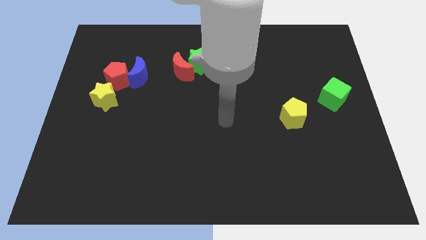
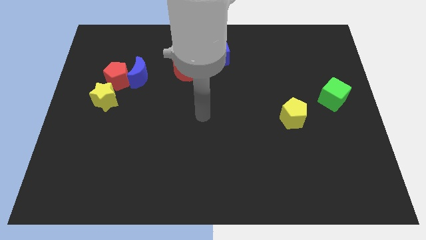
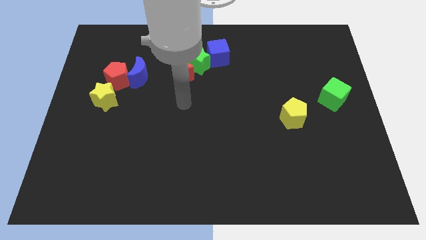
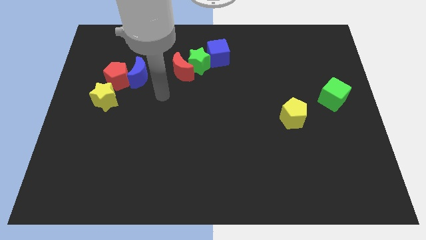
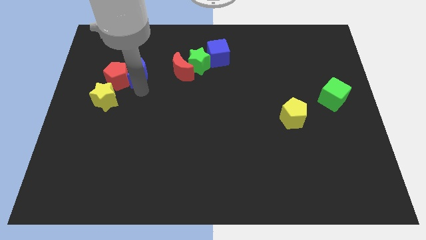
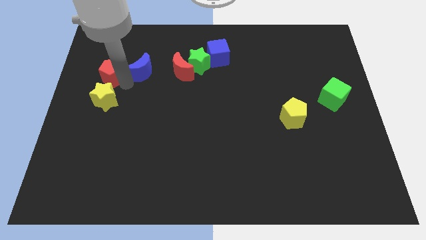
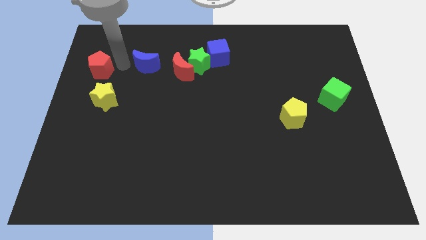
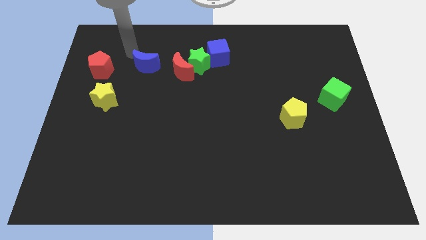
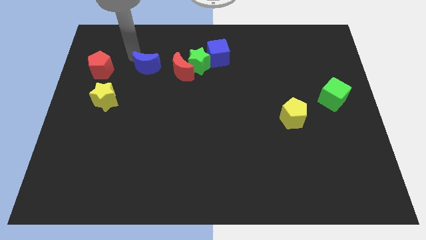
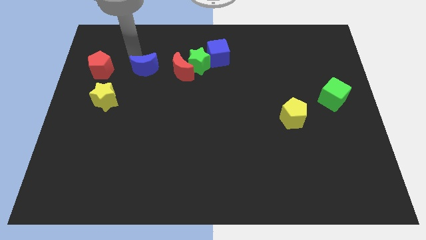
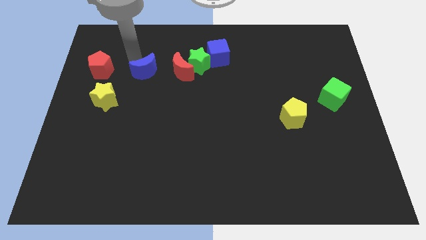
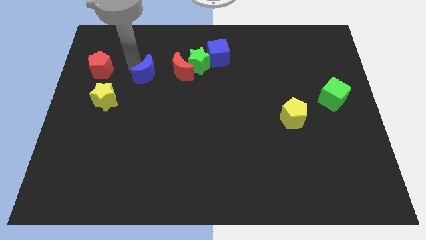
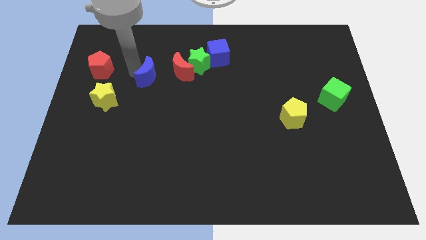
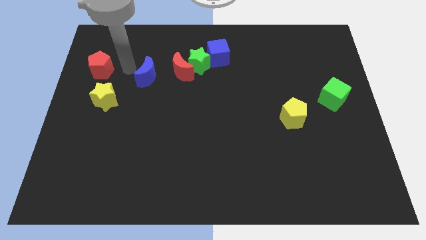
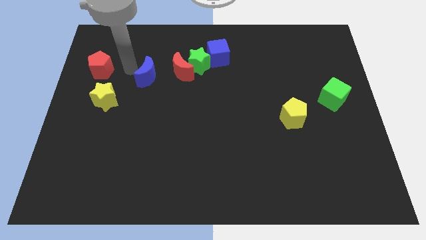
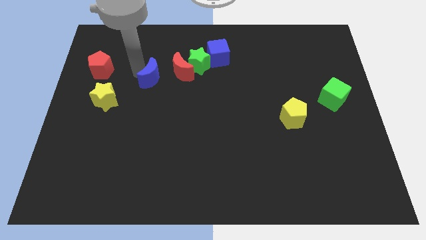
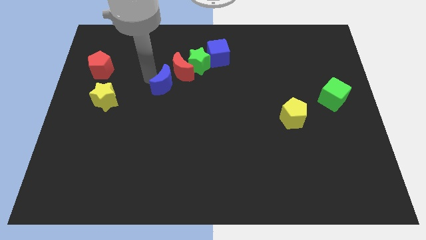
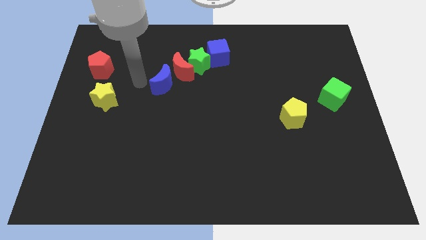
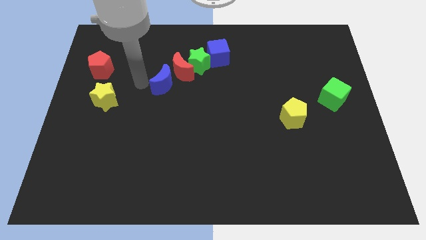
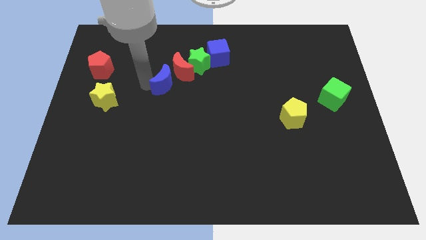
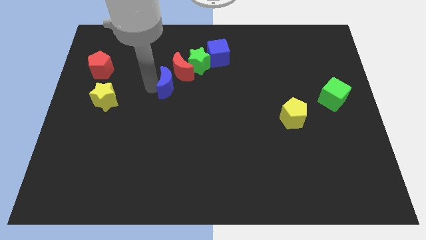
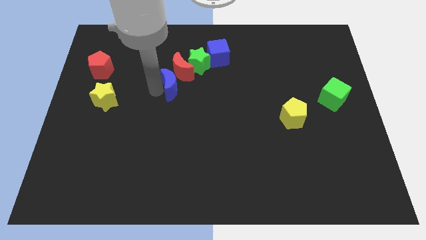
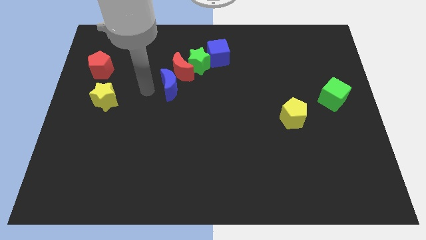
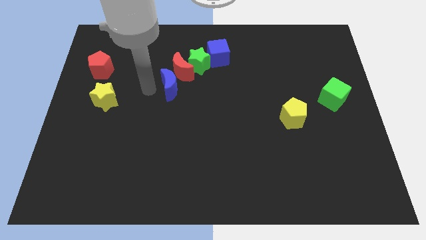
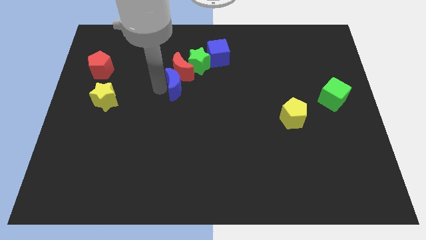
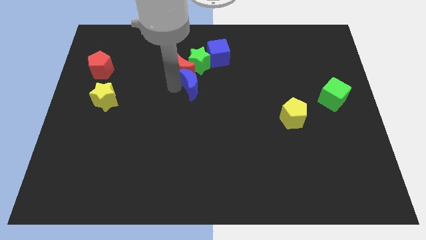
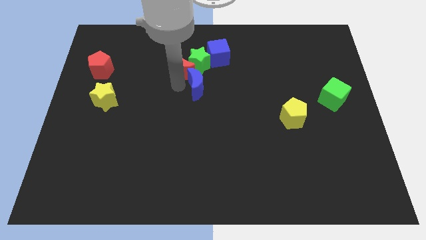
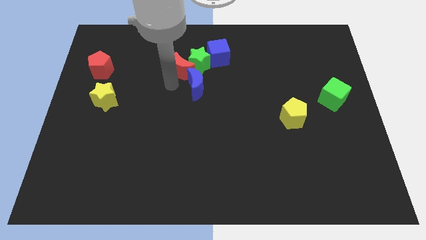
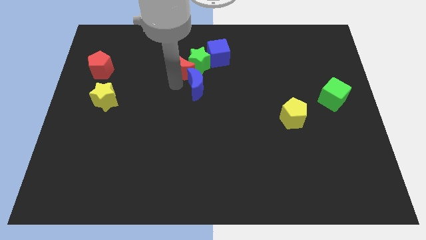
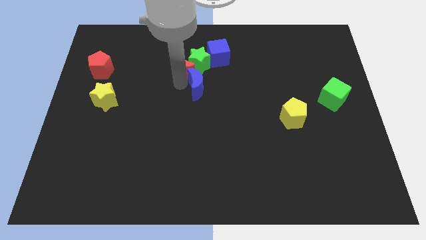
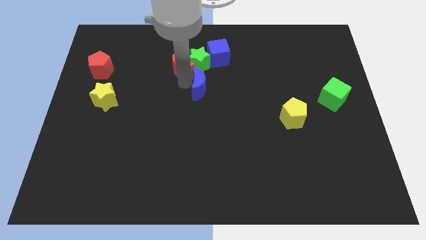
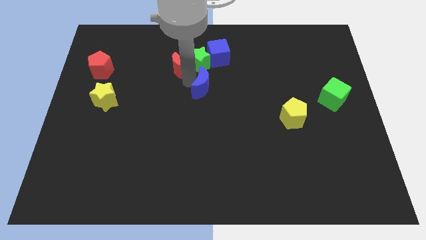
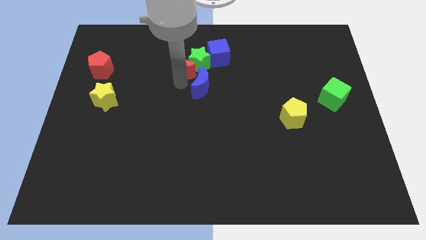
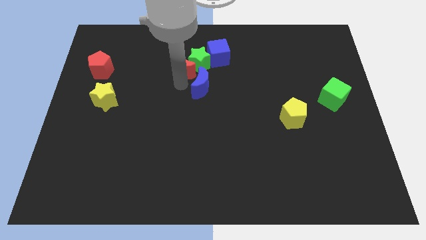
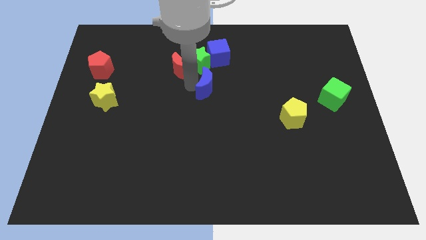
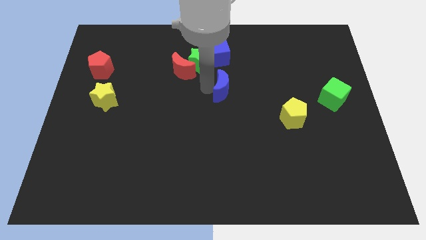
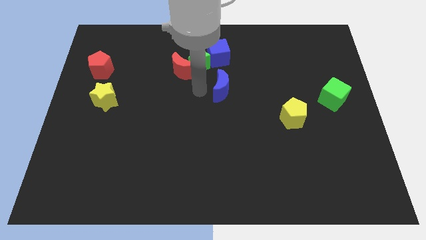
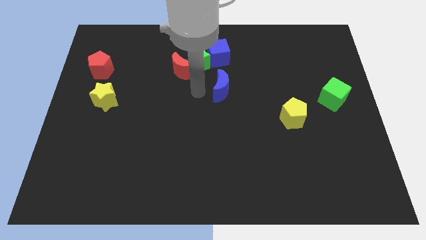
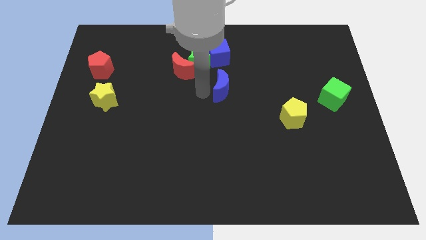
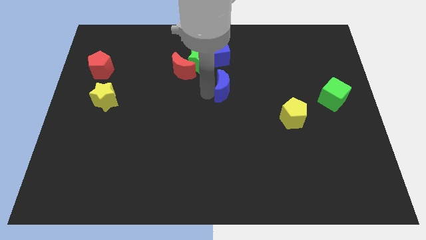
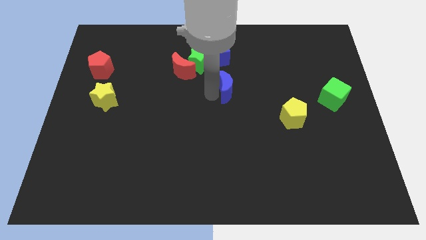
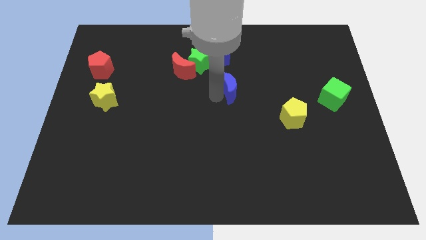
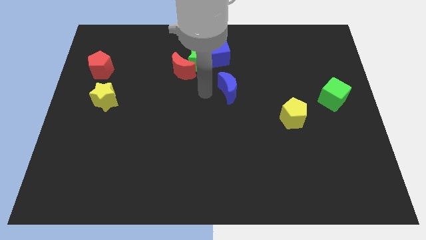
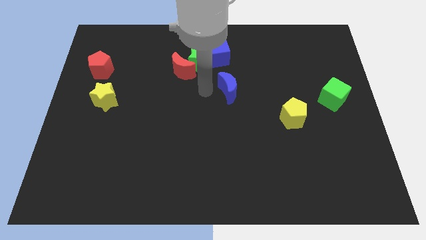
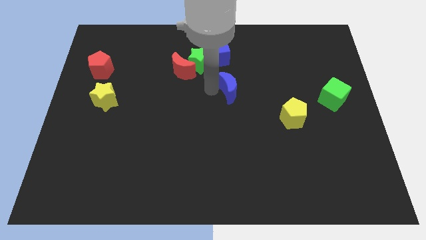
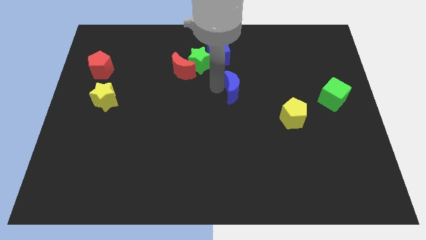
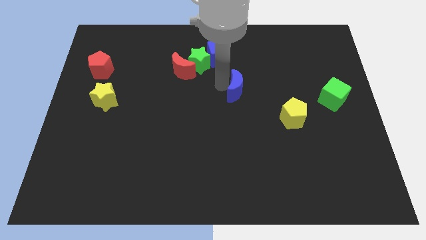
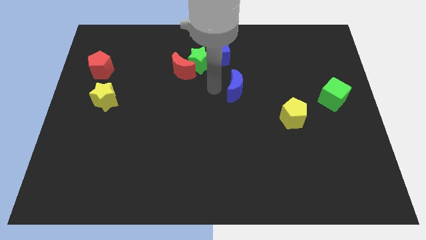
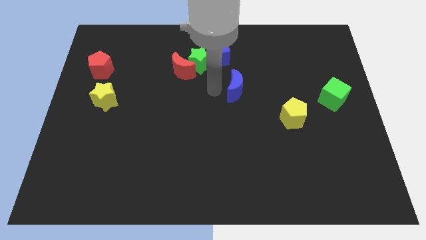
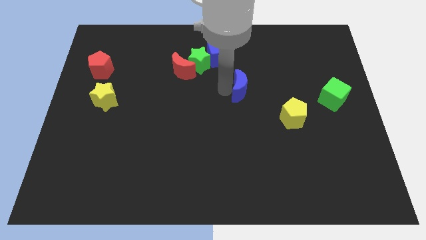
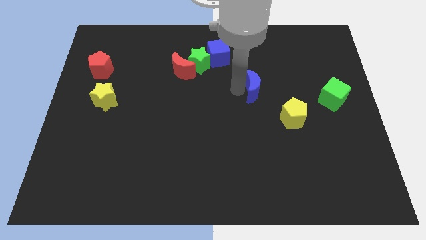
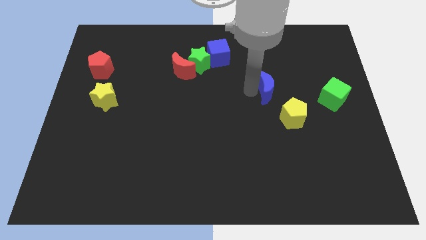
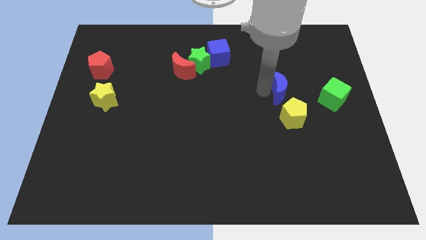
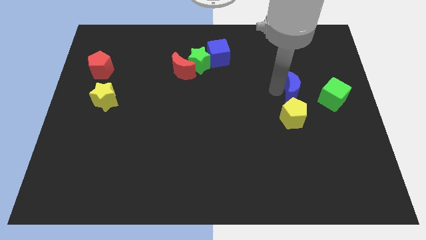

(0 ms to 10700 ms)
put the blue moon to the top right of the yellow pentagon

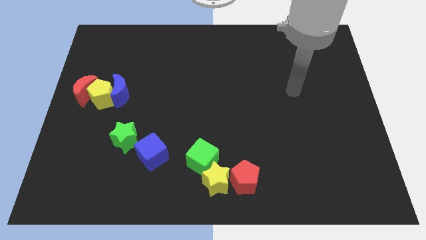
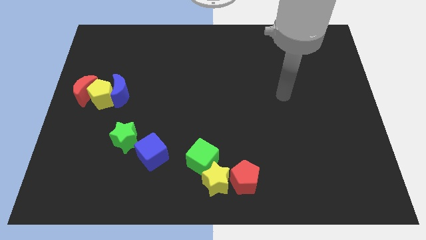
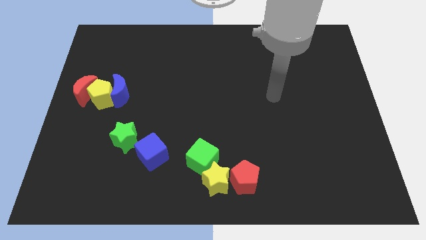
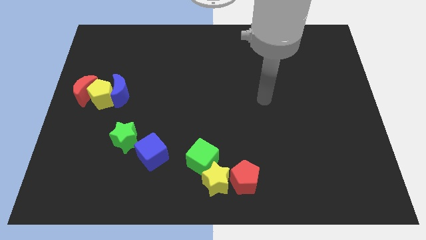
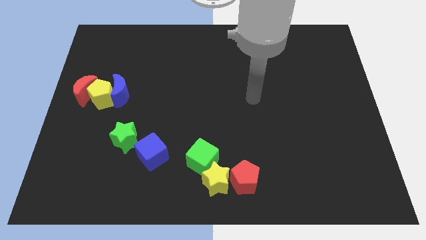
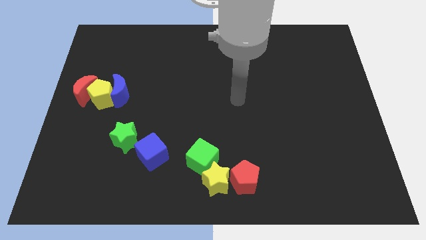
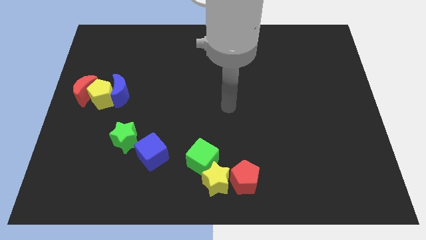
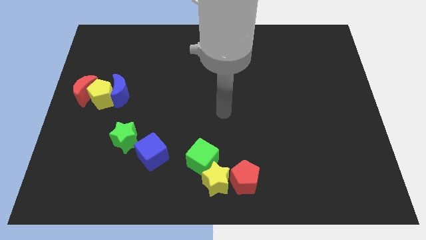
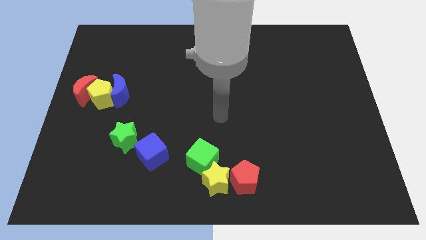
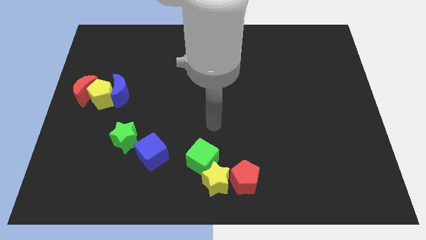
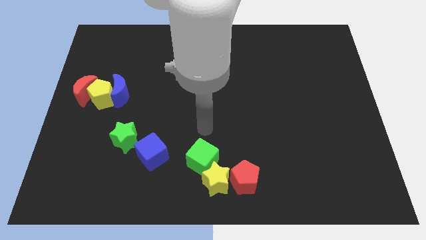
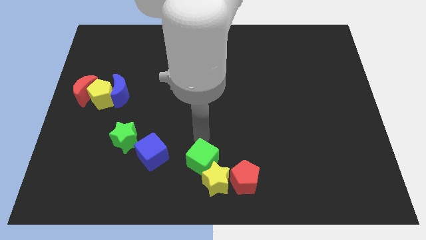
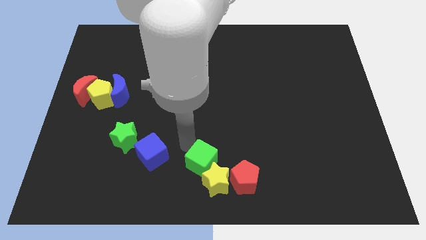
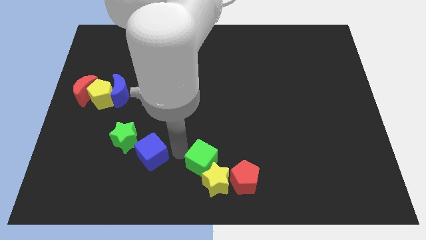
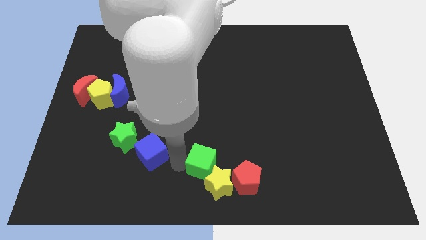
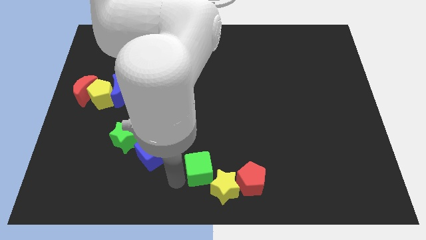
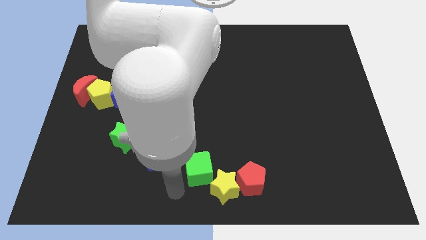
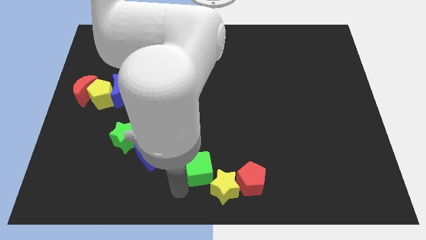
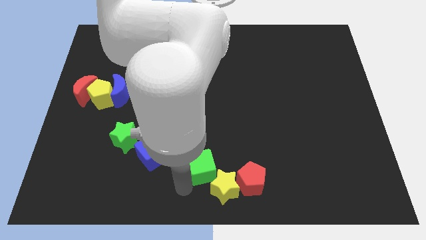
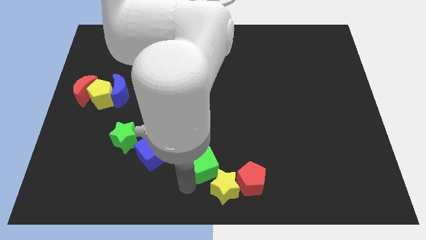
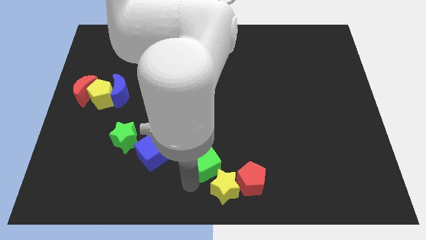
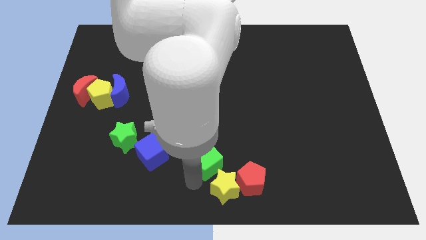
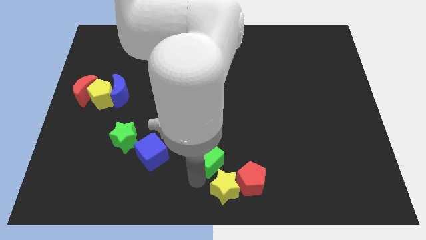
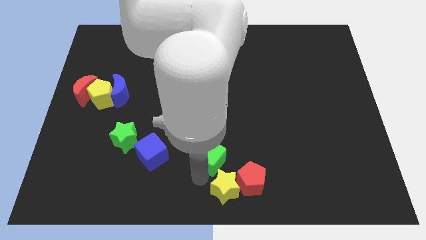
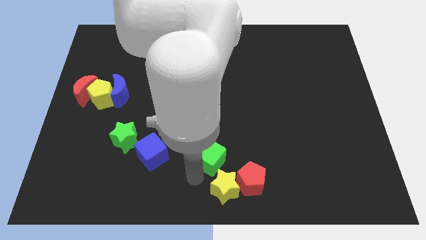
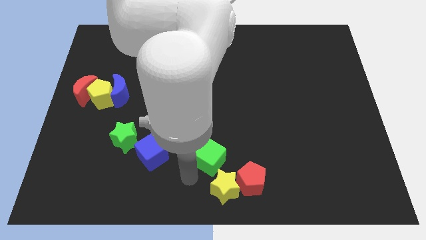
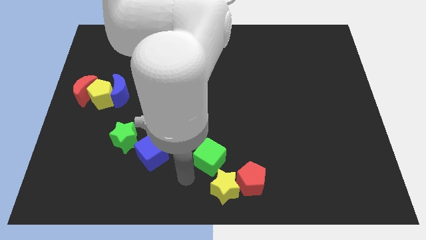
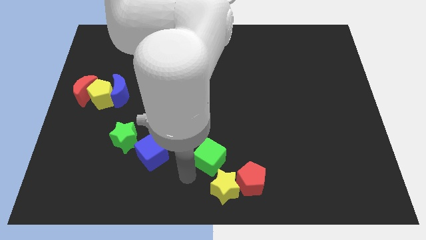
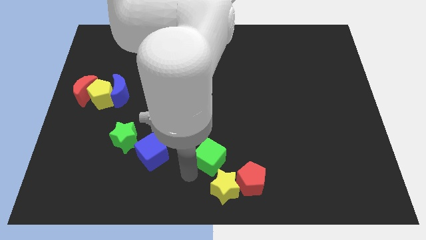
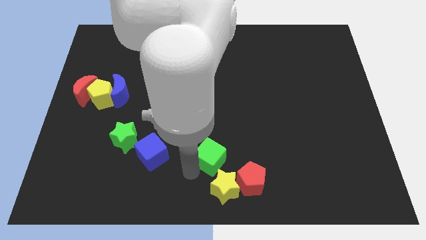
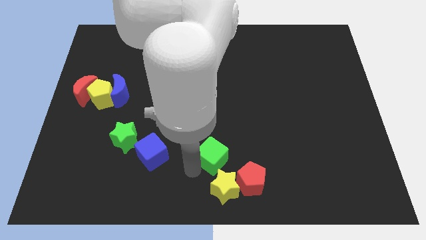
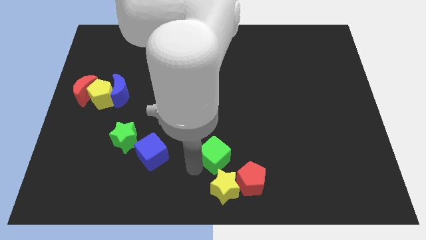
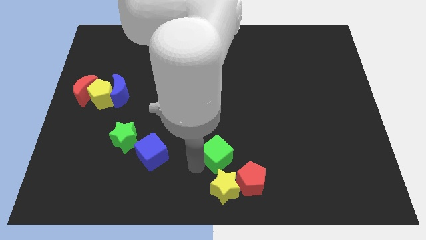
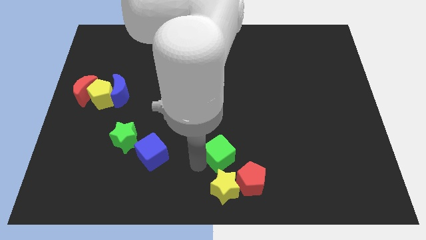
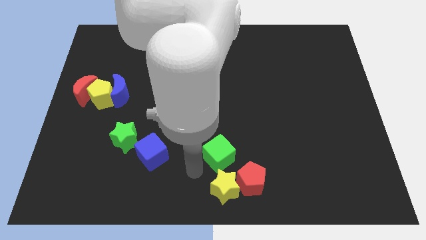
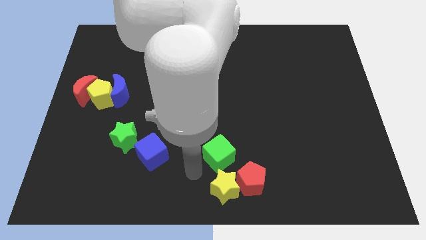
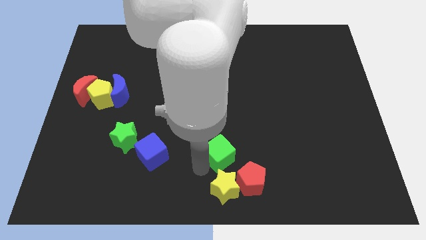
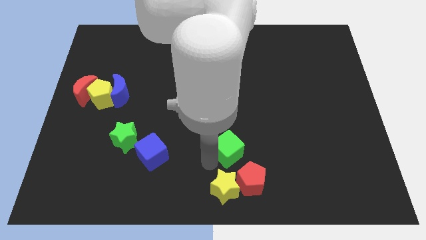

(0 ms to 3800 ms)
slide the green cube to the top side of the red pentagon
